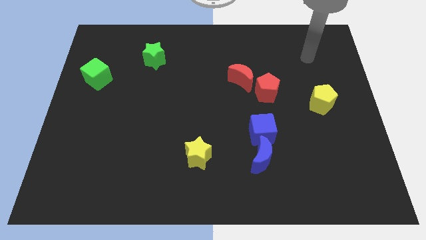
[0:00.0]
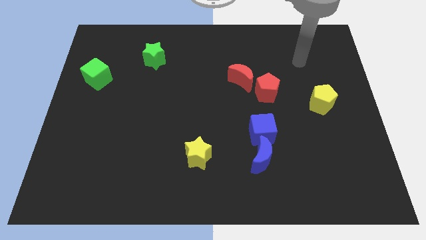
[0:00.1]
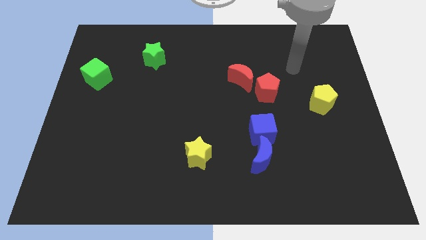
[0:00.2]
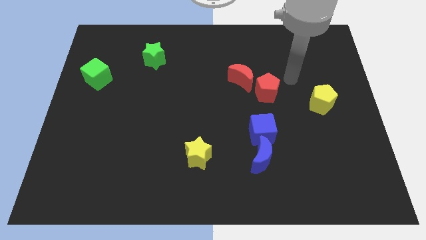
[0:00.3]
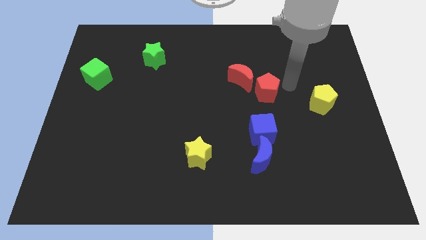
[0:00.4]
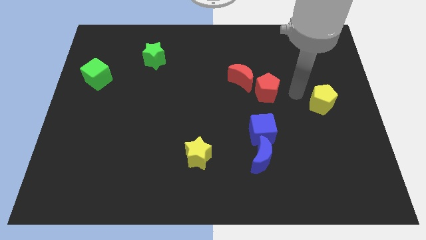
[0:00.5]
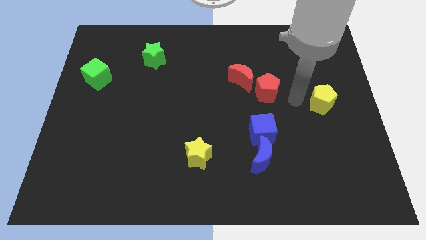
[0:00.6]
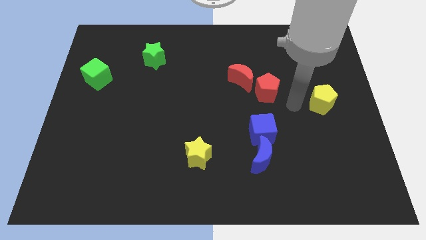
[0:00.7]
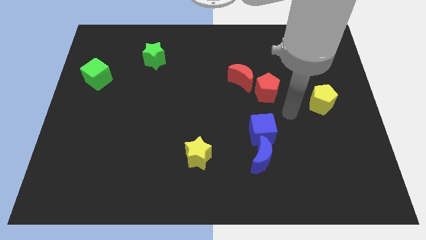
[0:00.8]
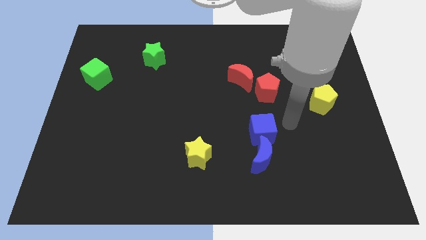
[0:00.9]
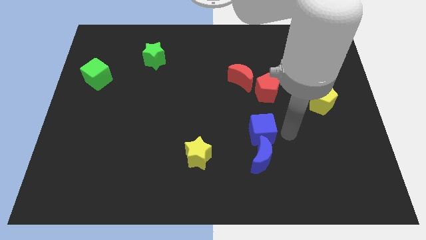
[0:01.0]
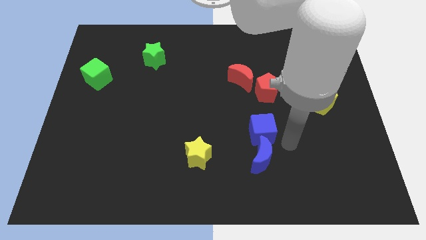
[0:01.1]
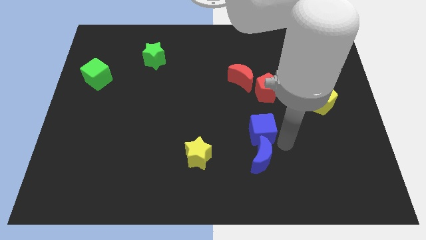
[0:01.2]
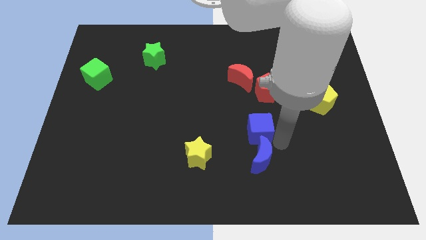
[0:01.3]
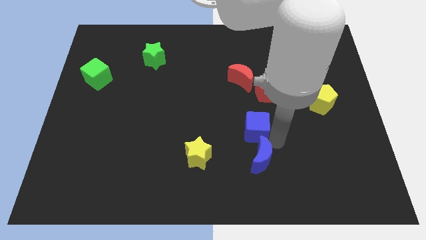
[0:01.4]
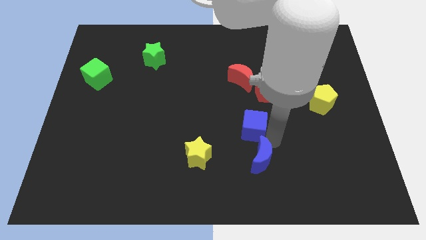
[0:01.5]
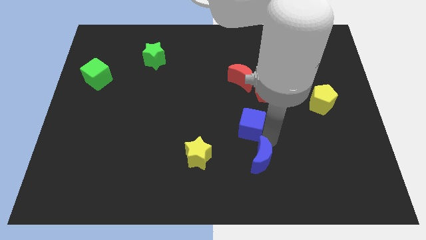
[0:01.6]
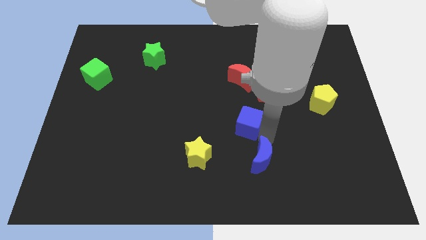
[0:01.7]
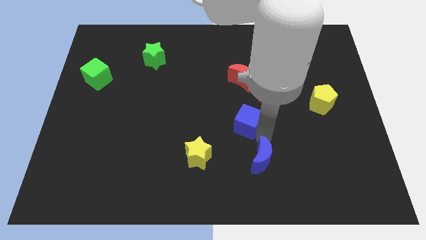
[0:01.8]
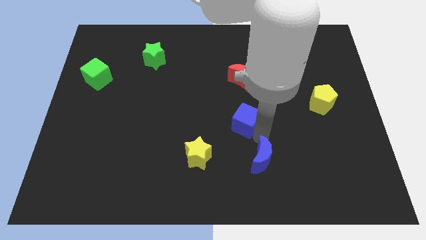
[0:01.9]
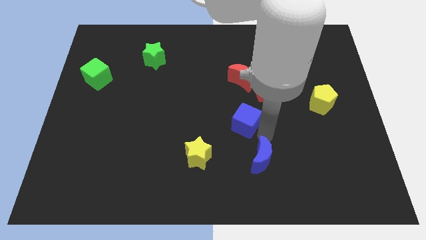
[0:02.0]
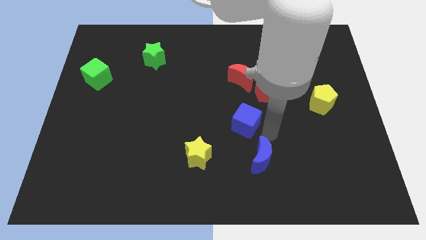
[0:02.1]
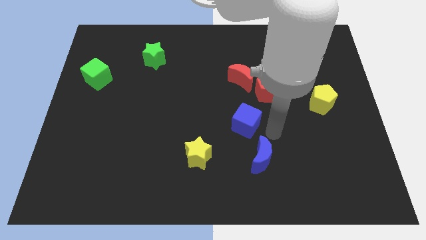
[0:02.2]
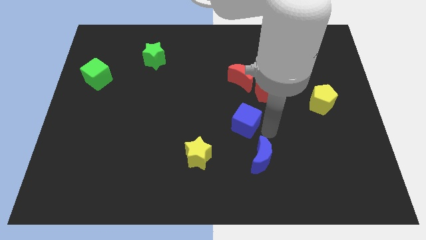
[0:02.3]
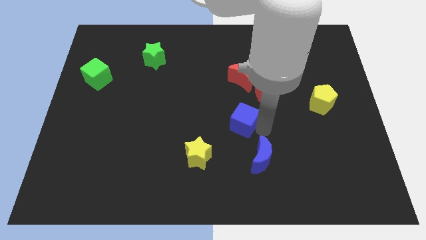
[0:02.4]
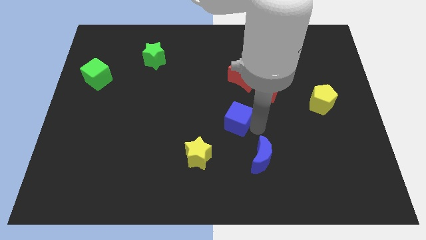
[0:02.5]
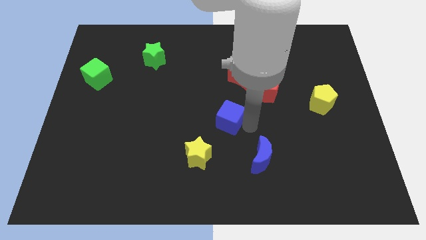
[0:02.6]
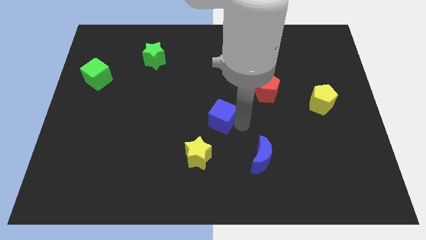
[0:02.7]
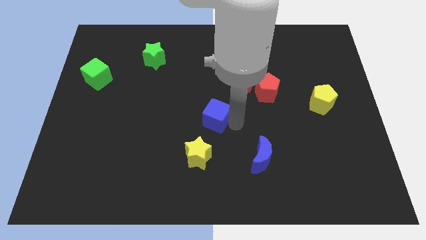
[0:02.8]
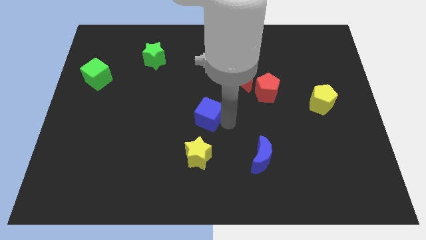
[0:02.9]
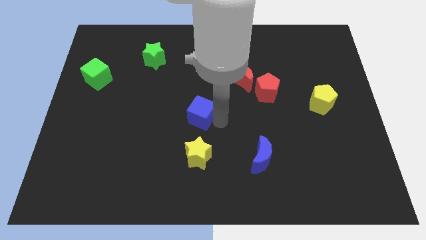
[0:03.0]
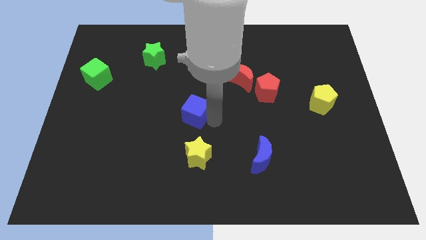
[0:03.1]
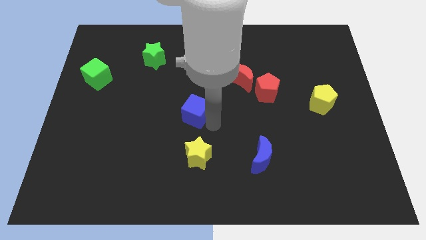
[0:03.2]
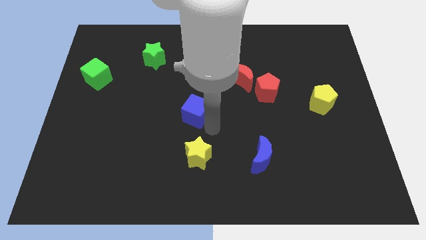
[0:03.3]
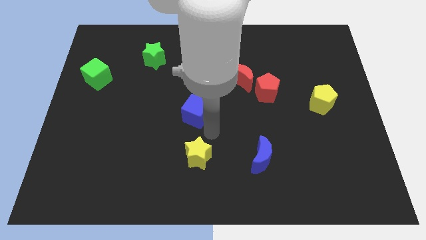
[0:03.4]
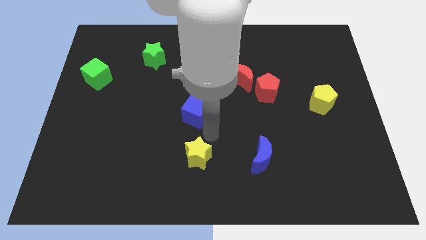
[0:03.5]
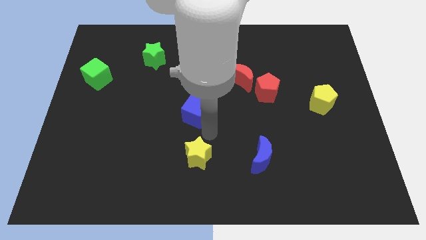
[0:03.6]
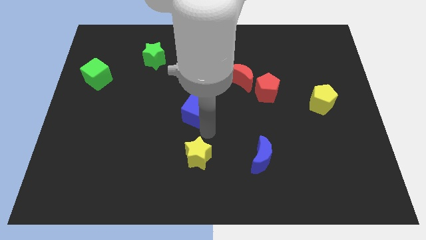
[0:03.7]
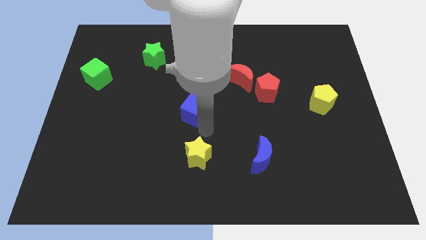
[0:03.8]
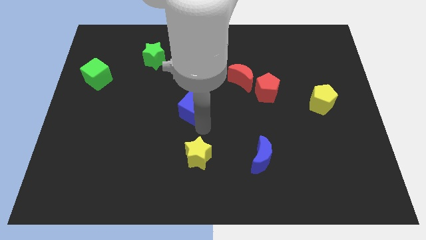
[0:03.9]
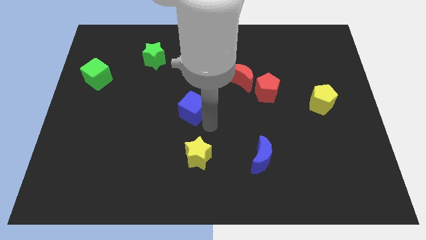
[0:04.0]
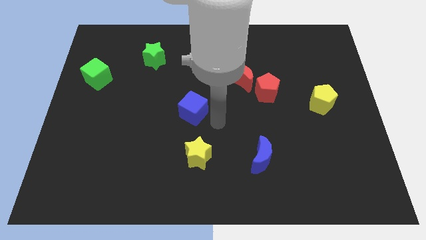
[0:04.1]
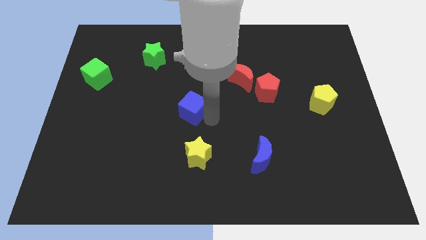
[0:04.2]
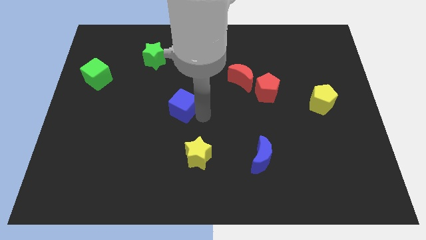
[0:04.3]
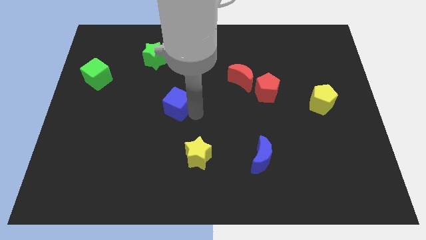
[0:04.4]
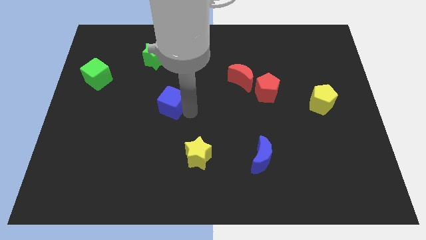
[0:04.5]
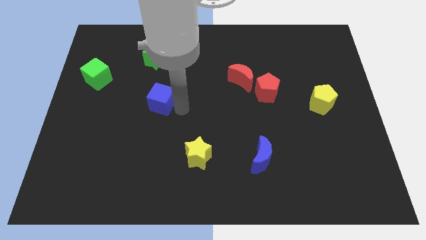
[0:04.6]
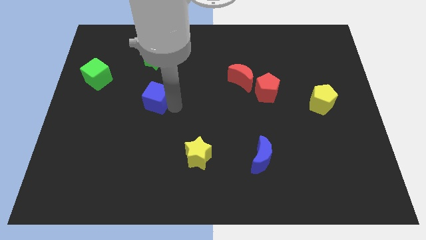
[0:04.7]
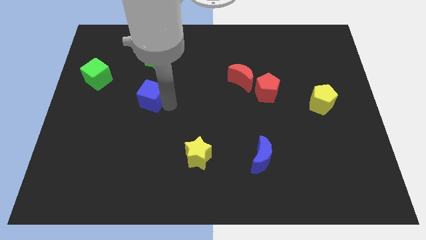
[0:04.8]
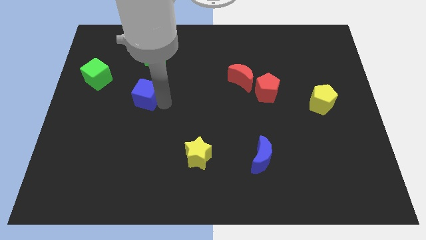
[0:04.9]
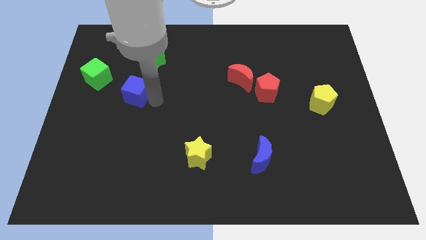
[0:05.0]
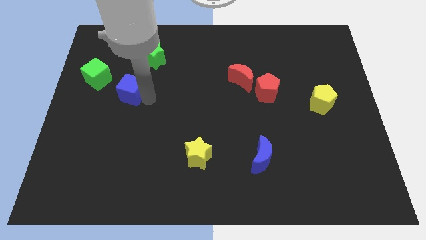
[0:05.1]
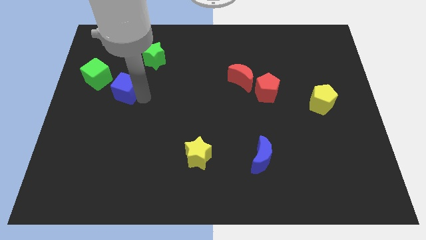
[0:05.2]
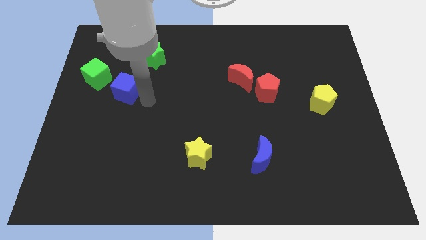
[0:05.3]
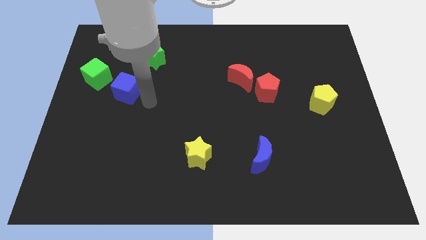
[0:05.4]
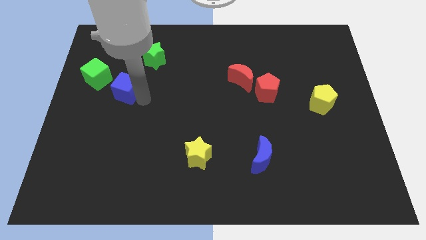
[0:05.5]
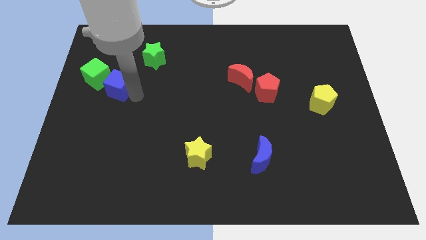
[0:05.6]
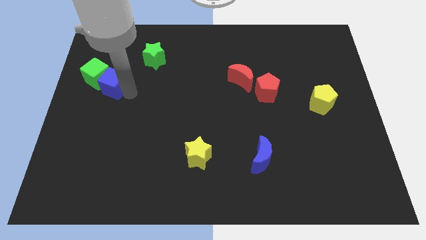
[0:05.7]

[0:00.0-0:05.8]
put the blue cube close to the green cube
